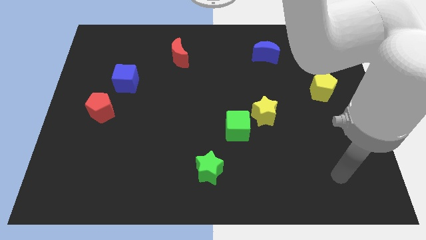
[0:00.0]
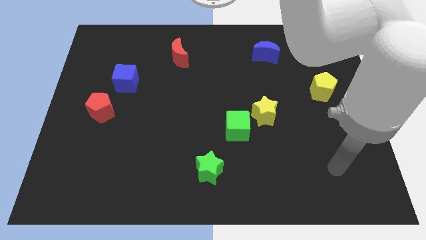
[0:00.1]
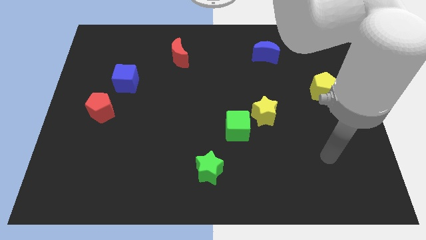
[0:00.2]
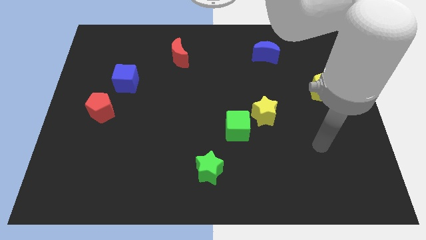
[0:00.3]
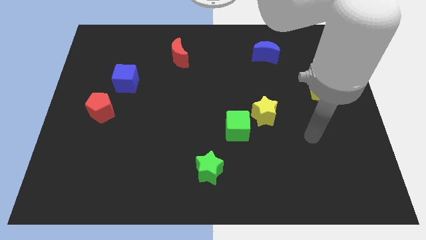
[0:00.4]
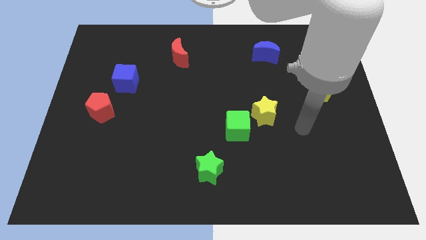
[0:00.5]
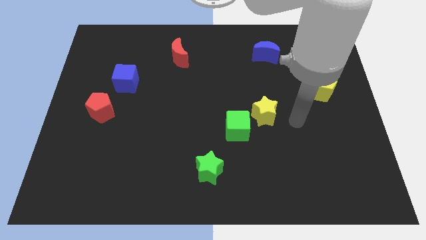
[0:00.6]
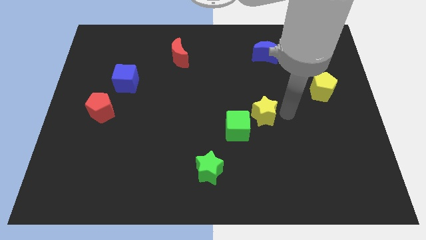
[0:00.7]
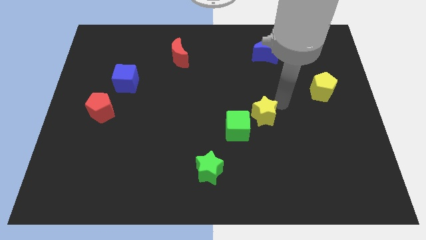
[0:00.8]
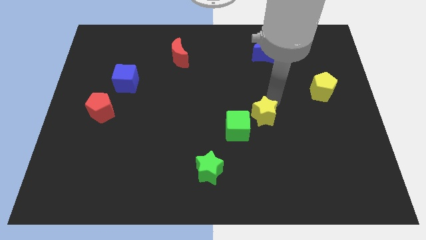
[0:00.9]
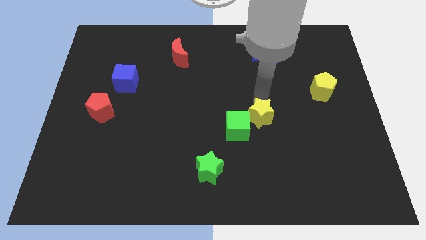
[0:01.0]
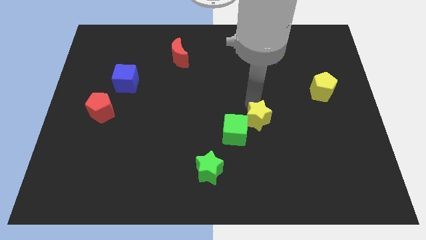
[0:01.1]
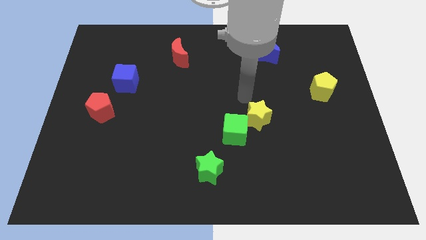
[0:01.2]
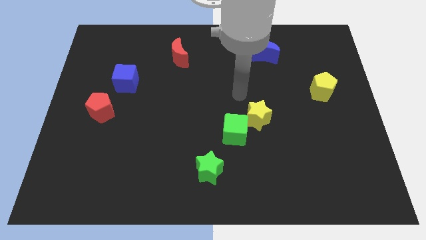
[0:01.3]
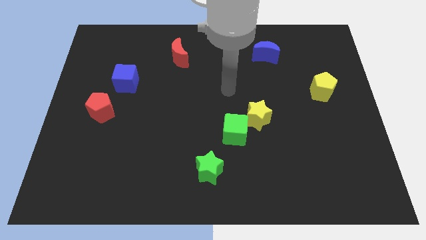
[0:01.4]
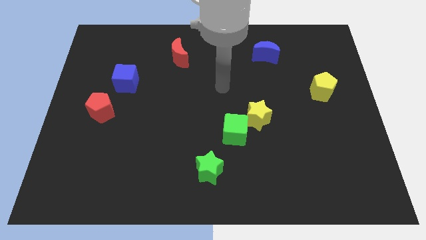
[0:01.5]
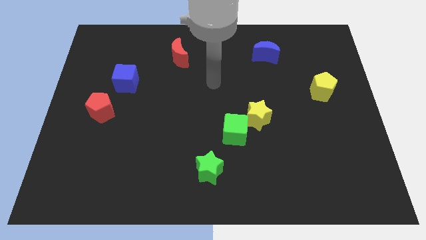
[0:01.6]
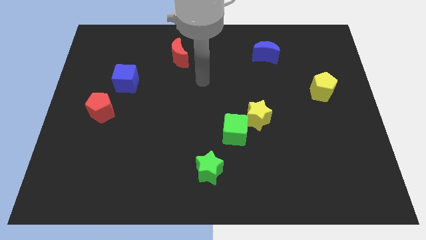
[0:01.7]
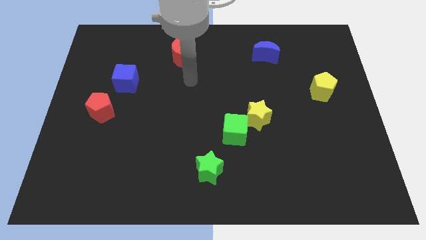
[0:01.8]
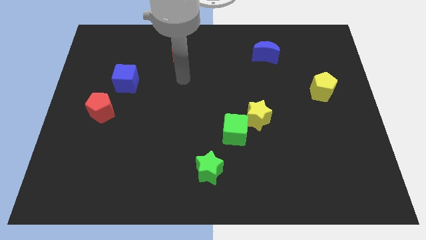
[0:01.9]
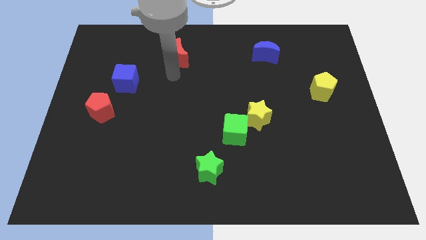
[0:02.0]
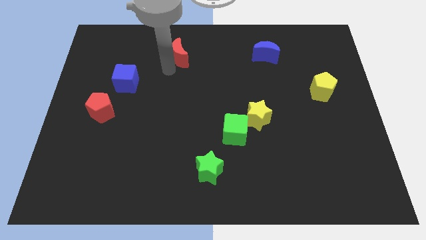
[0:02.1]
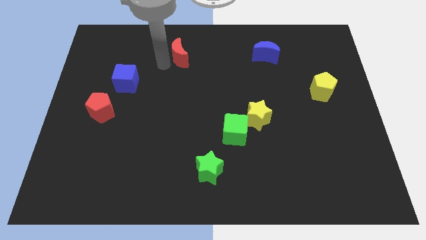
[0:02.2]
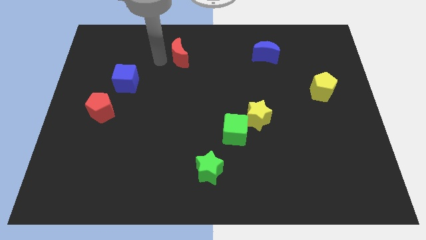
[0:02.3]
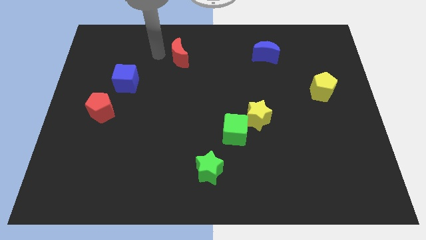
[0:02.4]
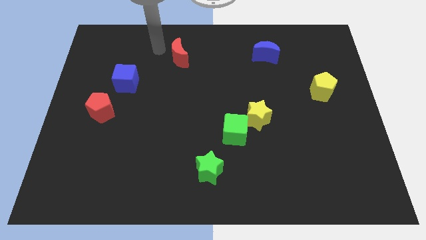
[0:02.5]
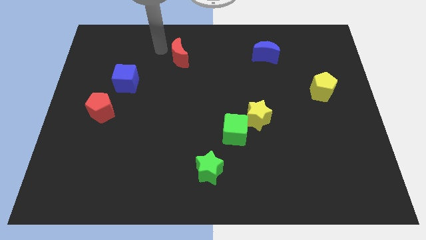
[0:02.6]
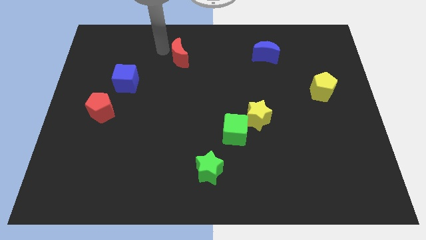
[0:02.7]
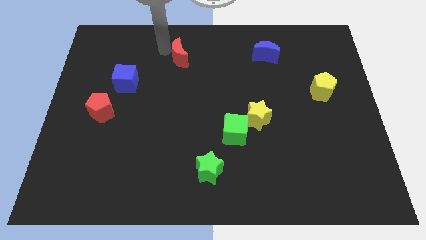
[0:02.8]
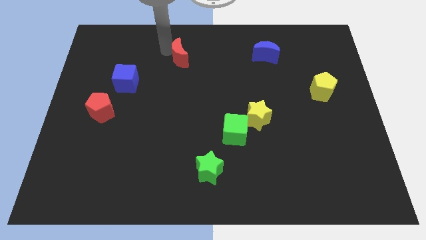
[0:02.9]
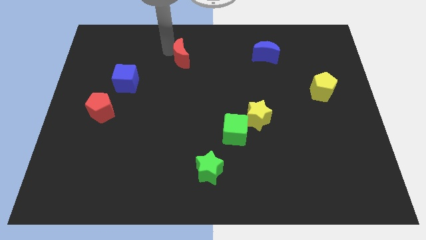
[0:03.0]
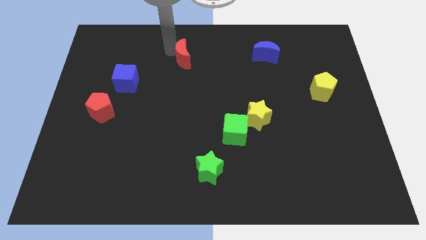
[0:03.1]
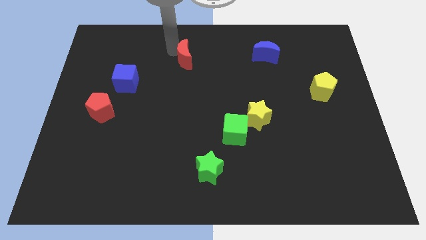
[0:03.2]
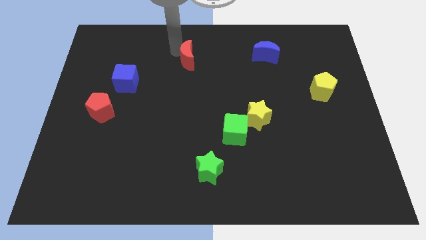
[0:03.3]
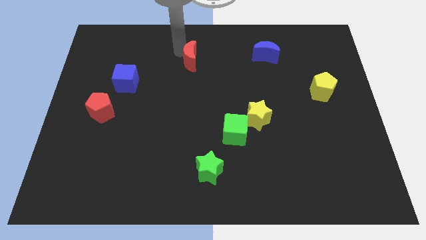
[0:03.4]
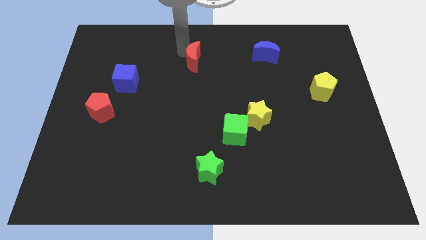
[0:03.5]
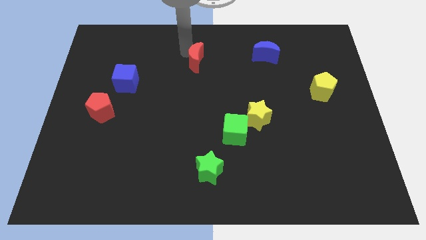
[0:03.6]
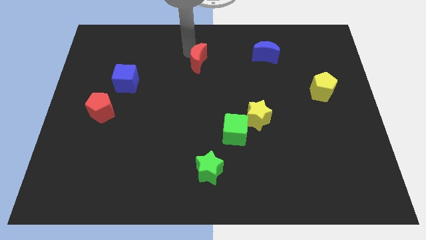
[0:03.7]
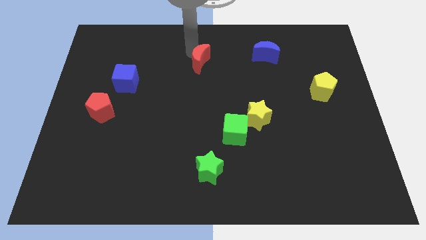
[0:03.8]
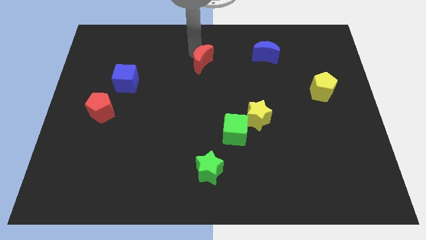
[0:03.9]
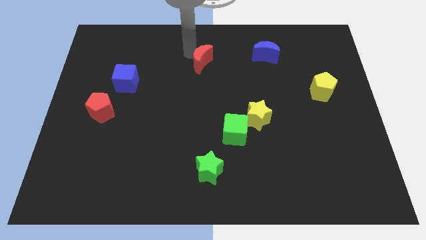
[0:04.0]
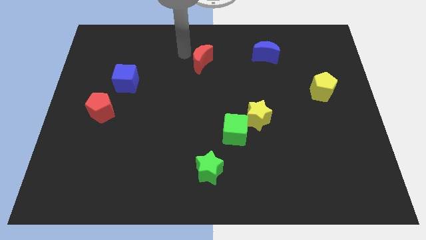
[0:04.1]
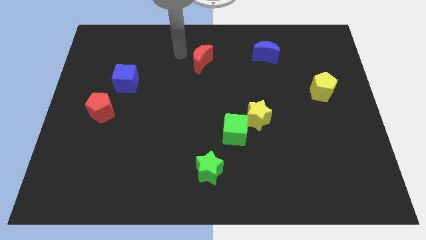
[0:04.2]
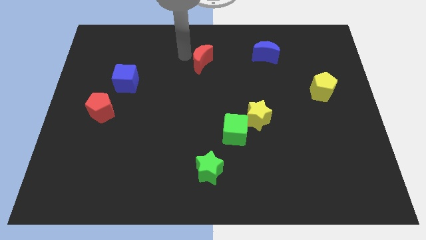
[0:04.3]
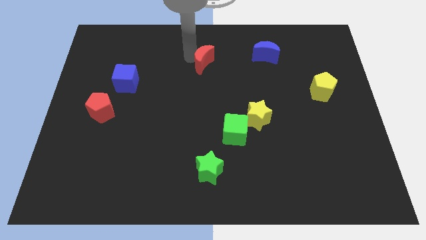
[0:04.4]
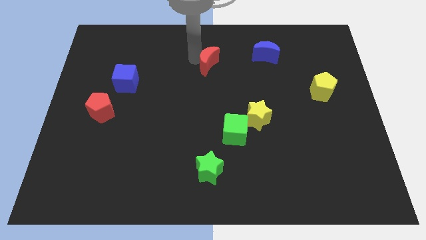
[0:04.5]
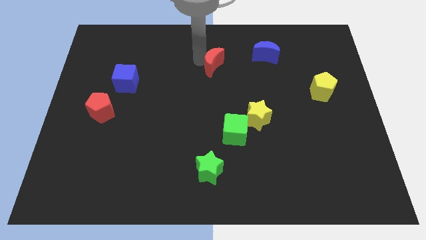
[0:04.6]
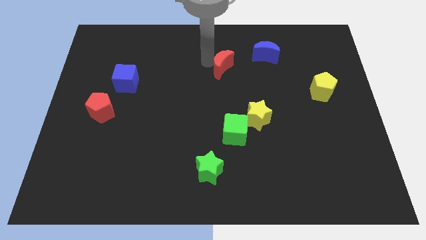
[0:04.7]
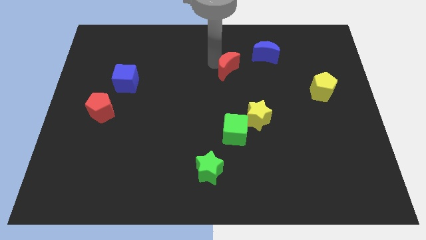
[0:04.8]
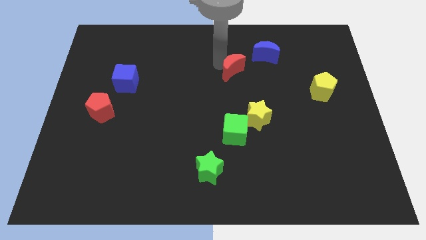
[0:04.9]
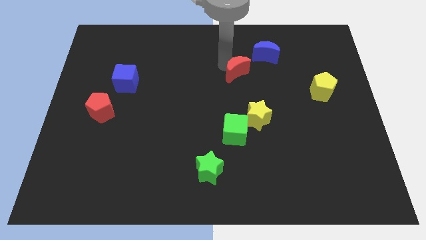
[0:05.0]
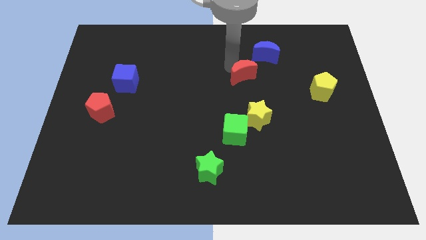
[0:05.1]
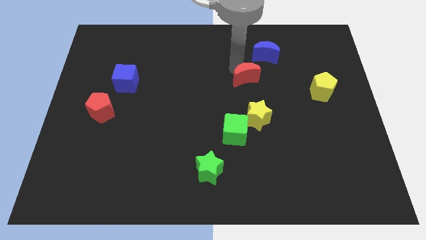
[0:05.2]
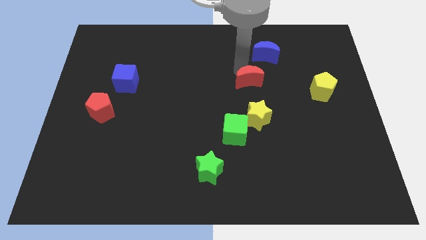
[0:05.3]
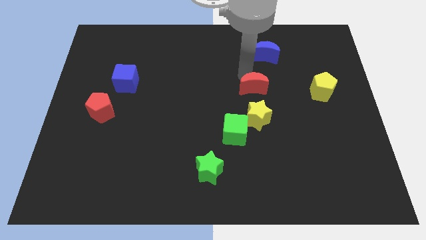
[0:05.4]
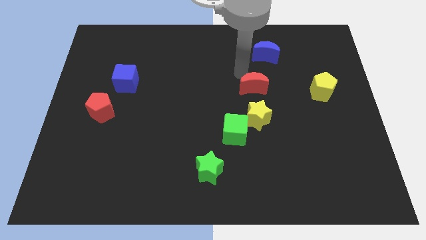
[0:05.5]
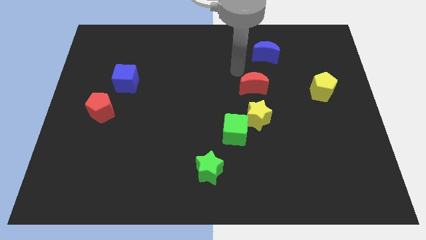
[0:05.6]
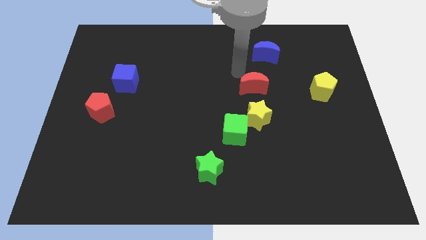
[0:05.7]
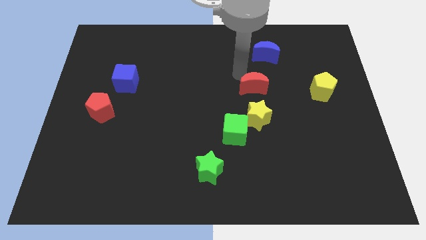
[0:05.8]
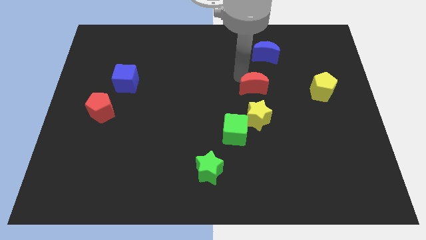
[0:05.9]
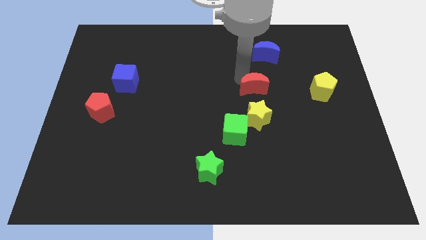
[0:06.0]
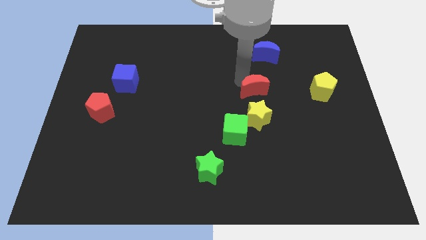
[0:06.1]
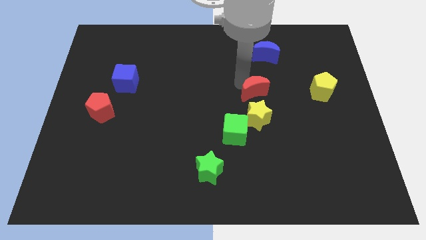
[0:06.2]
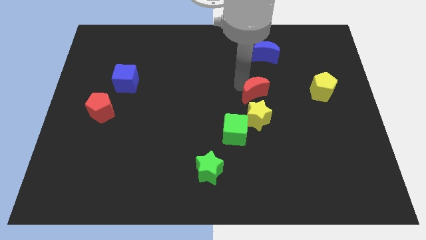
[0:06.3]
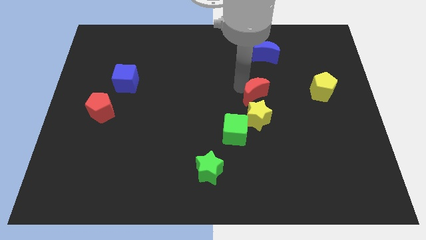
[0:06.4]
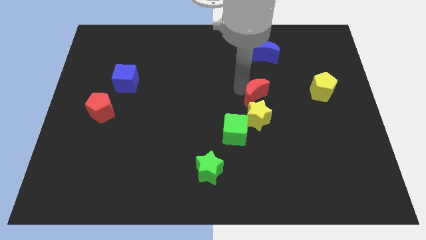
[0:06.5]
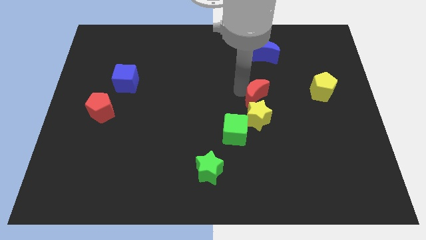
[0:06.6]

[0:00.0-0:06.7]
push the red moon to the top right of the green cube

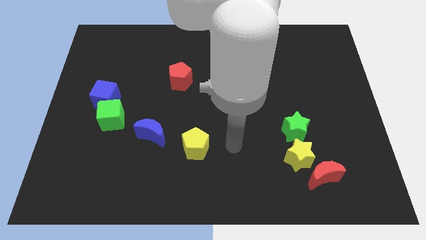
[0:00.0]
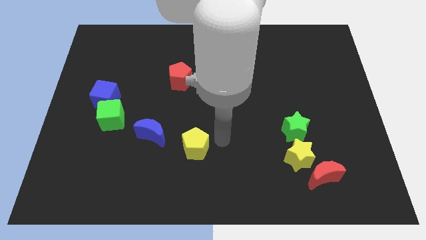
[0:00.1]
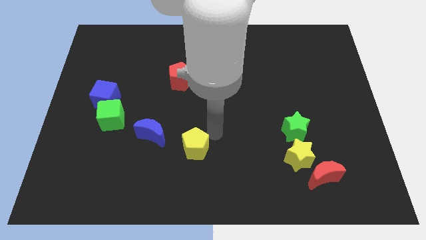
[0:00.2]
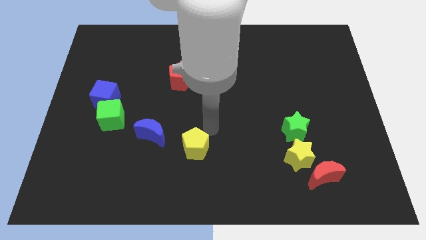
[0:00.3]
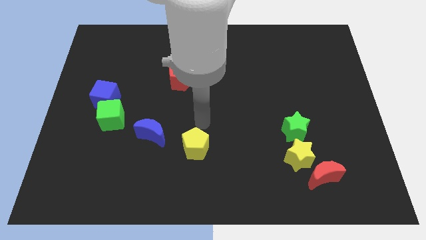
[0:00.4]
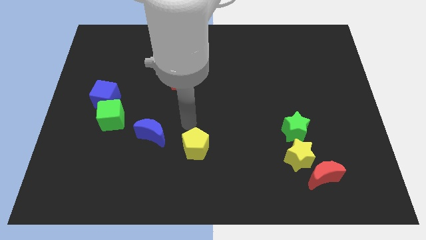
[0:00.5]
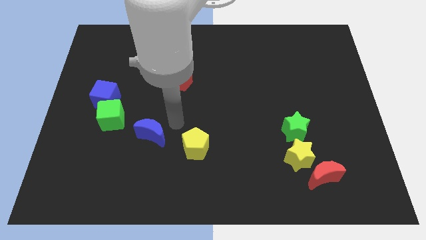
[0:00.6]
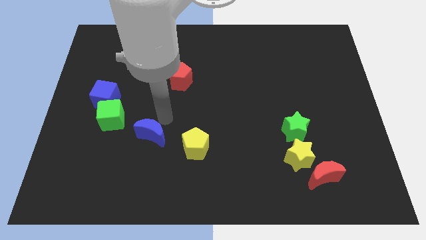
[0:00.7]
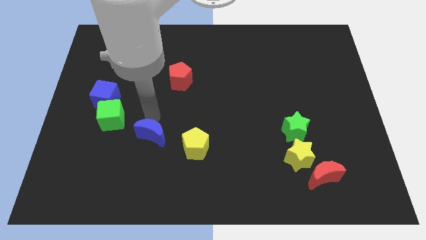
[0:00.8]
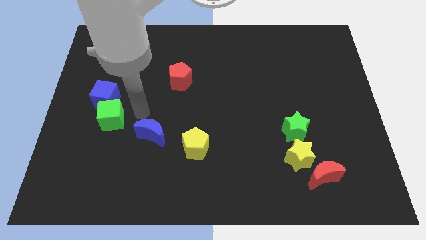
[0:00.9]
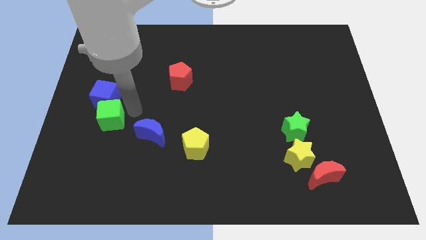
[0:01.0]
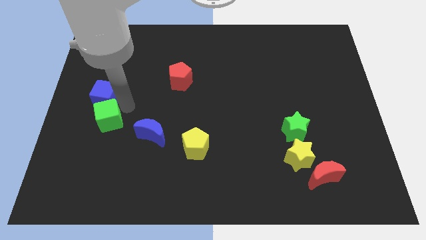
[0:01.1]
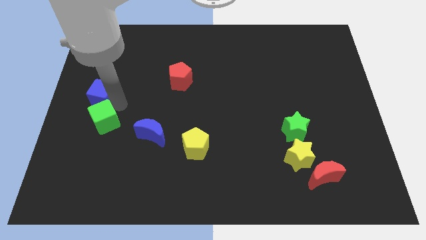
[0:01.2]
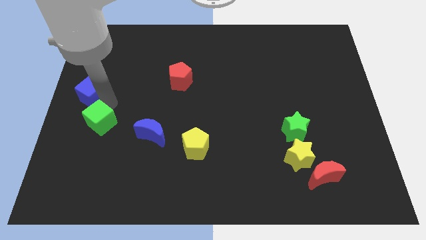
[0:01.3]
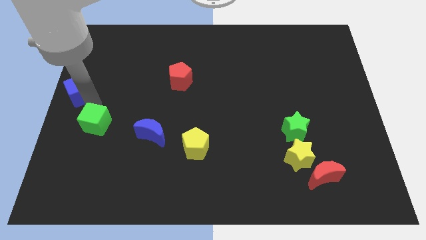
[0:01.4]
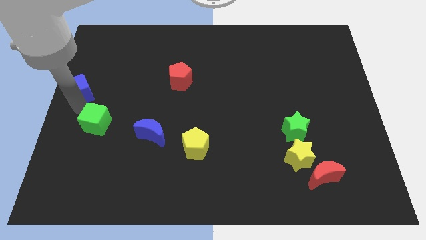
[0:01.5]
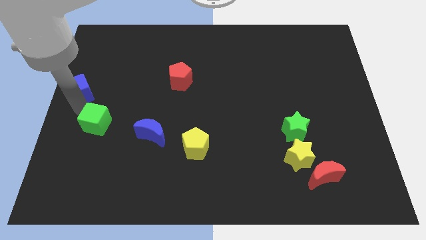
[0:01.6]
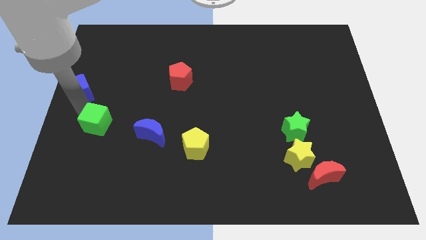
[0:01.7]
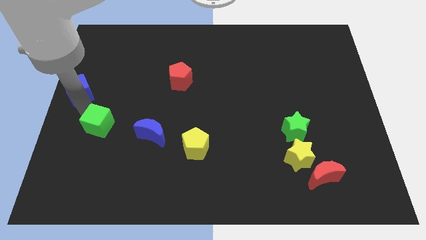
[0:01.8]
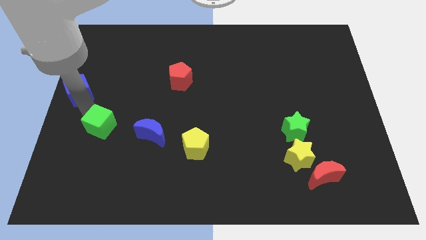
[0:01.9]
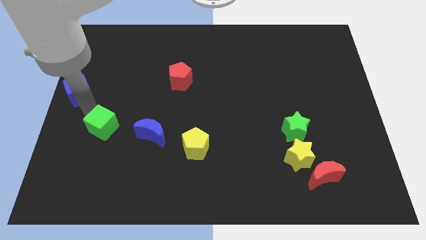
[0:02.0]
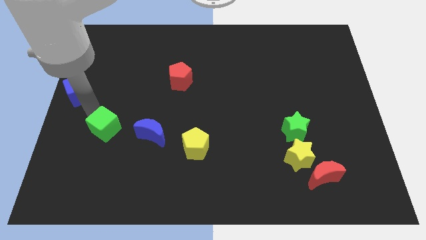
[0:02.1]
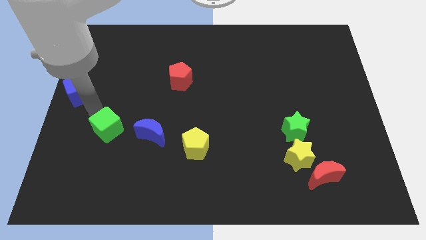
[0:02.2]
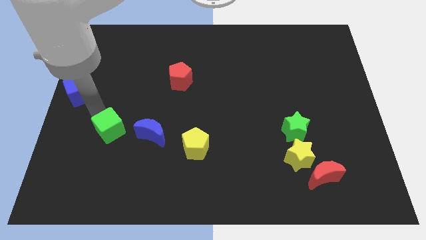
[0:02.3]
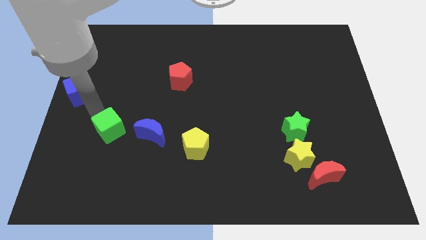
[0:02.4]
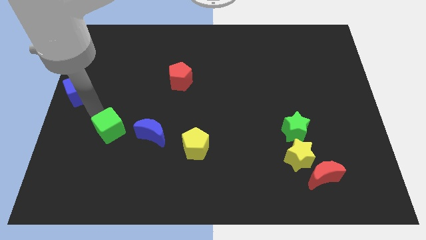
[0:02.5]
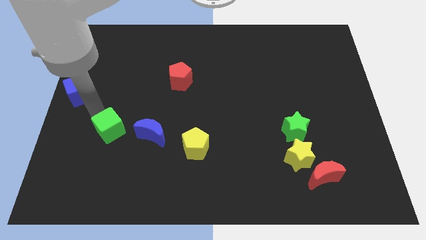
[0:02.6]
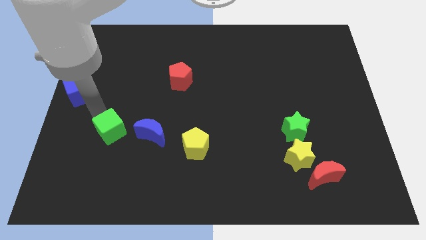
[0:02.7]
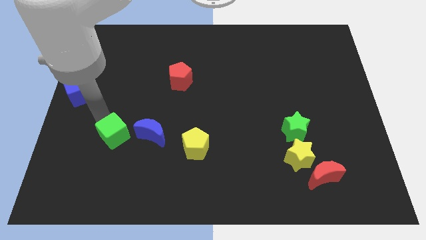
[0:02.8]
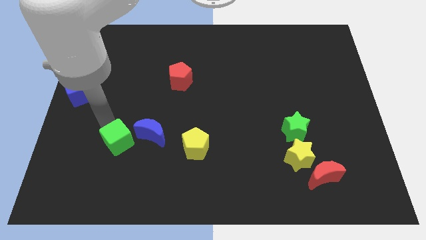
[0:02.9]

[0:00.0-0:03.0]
push the green cube to the bottom left of the blue moon
